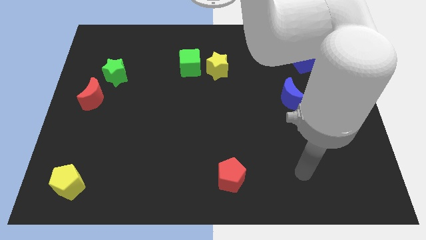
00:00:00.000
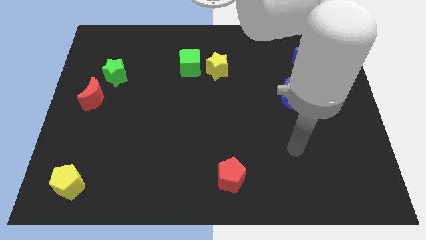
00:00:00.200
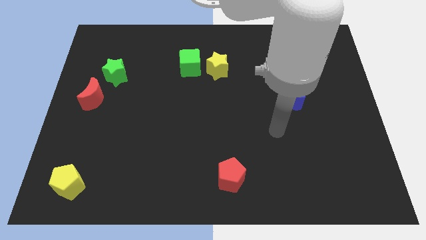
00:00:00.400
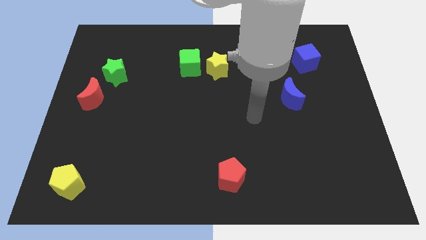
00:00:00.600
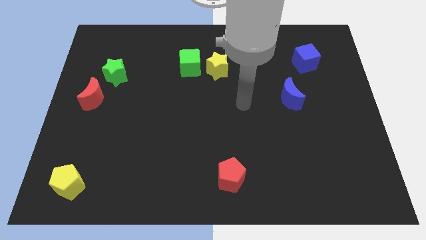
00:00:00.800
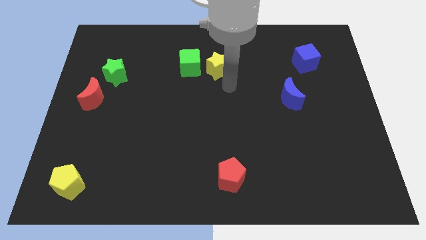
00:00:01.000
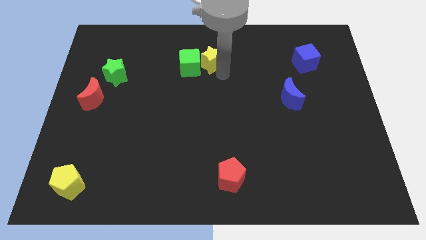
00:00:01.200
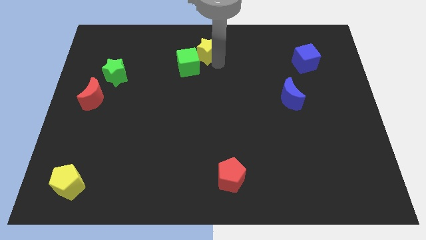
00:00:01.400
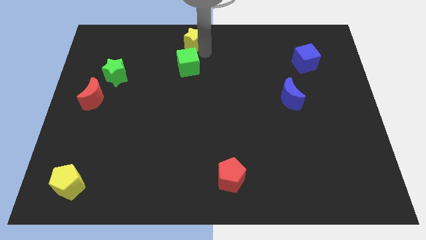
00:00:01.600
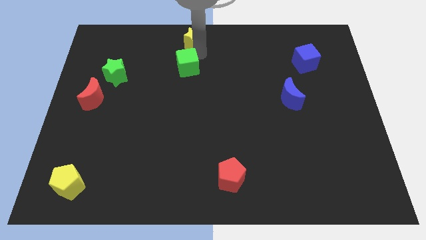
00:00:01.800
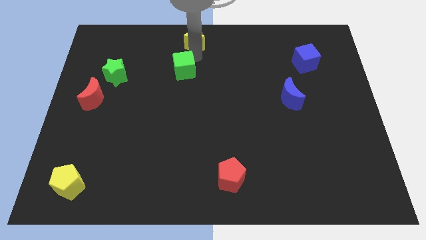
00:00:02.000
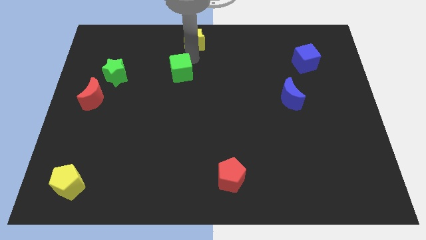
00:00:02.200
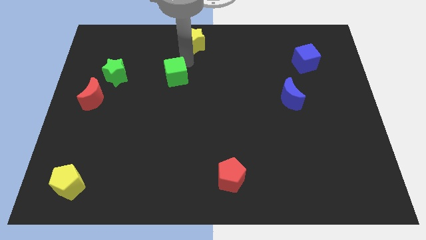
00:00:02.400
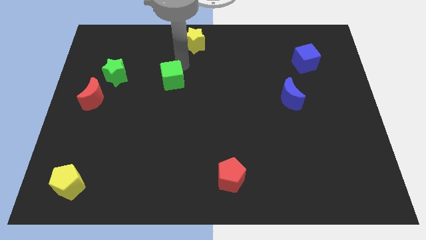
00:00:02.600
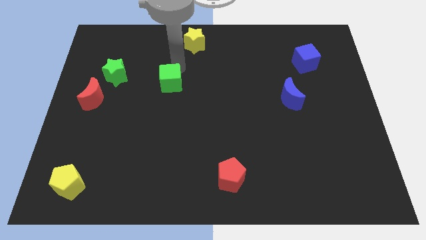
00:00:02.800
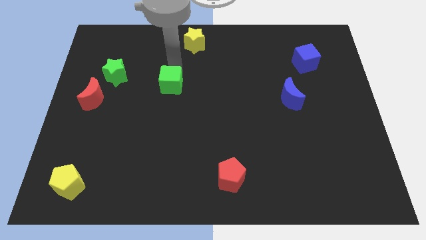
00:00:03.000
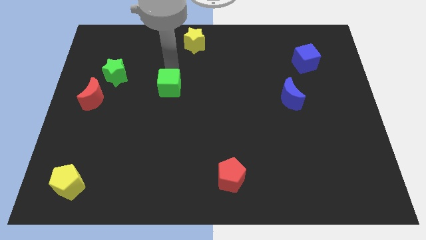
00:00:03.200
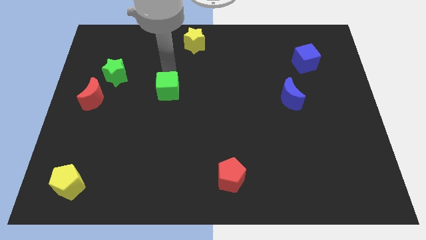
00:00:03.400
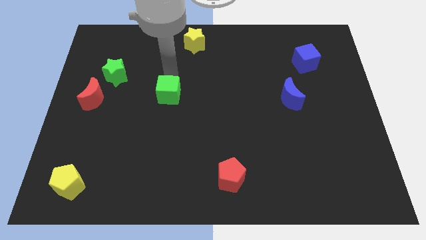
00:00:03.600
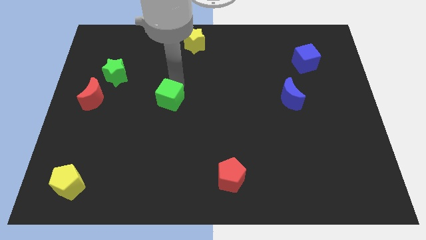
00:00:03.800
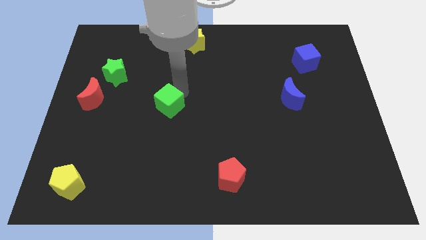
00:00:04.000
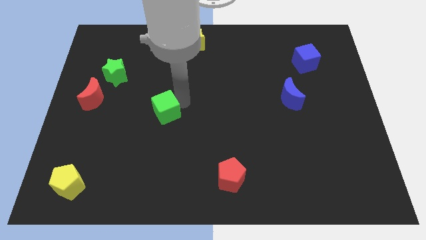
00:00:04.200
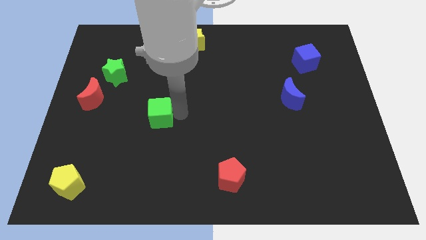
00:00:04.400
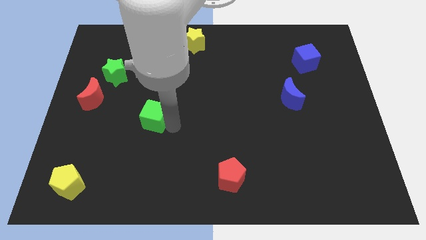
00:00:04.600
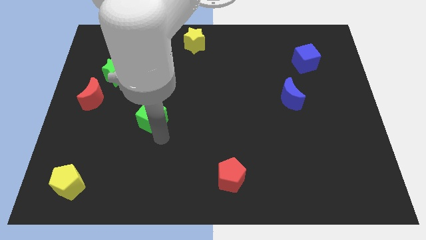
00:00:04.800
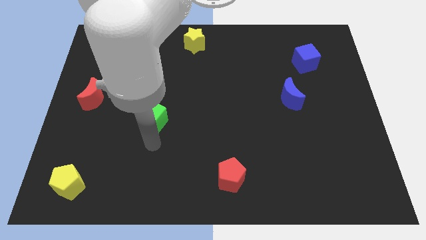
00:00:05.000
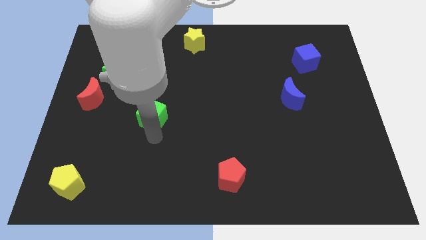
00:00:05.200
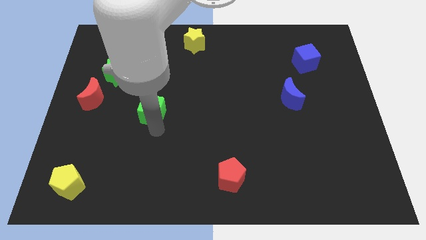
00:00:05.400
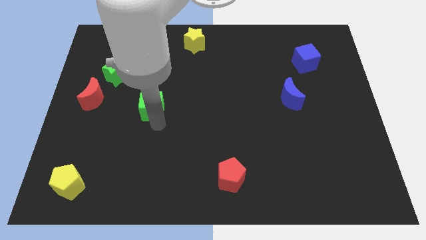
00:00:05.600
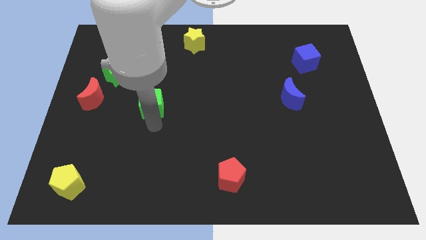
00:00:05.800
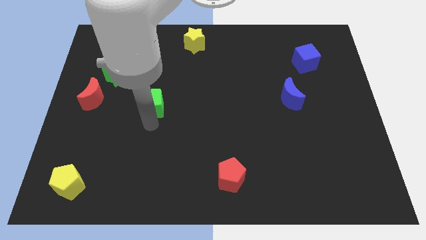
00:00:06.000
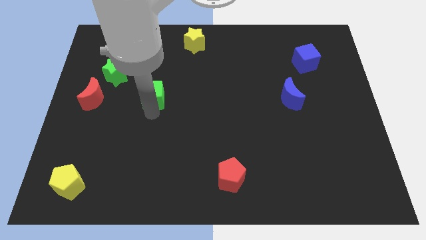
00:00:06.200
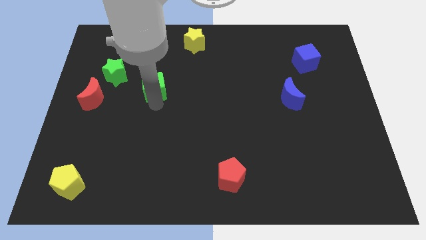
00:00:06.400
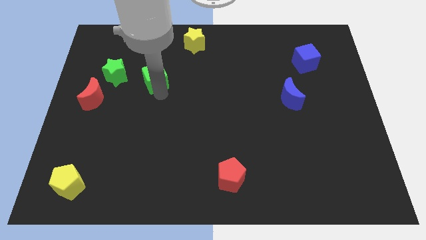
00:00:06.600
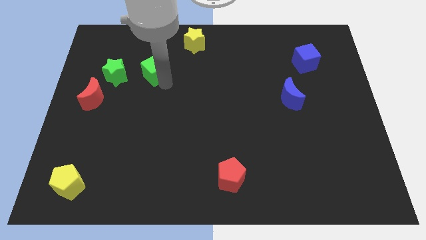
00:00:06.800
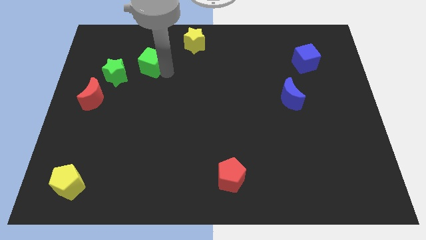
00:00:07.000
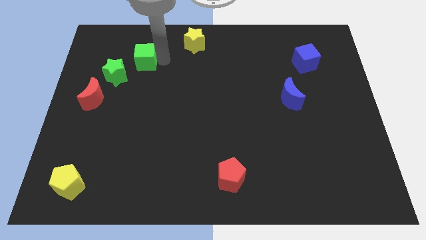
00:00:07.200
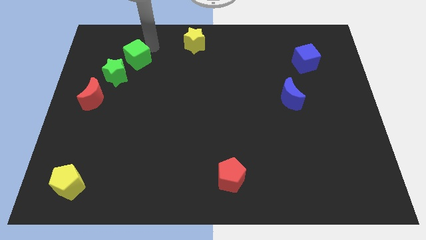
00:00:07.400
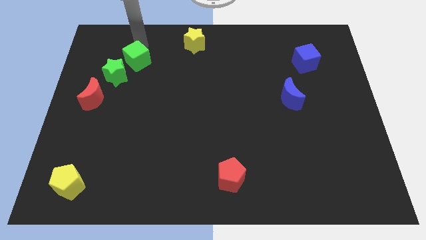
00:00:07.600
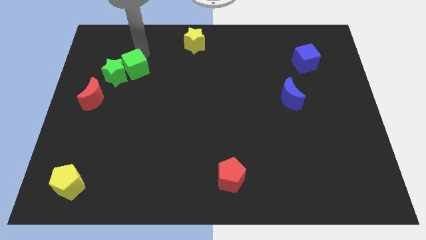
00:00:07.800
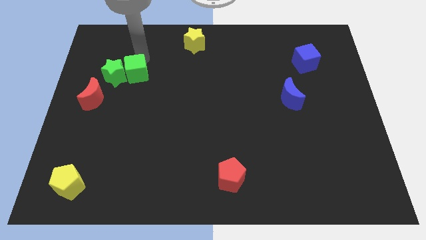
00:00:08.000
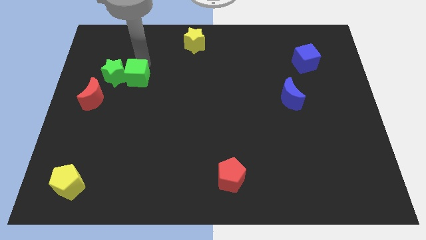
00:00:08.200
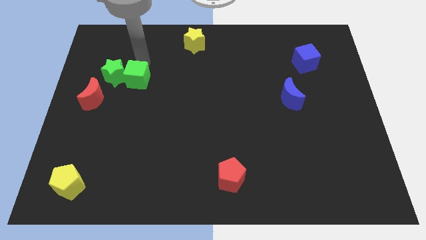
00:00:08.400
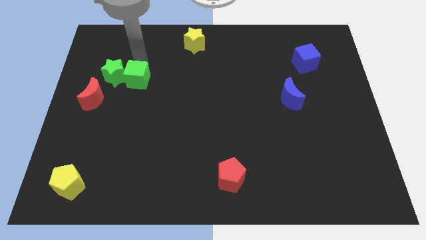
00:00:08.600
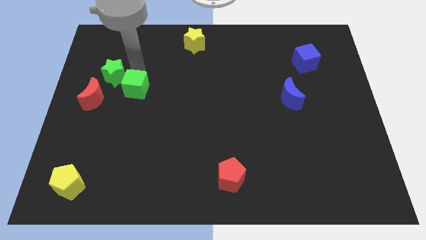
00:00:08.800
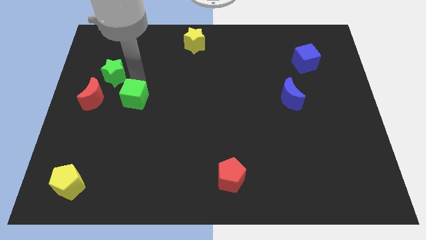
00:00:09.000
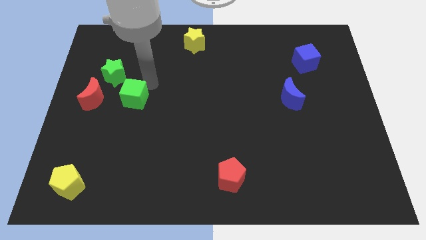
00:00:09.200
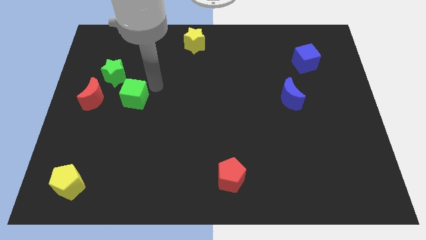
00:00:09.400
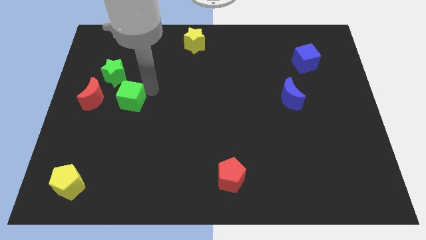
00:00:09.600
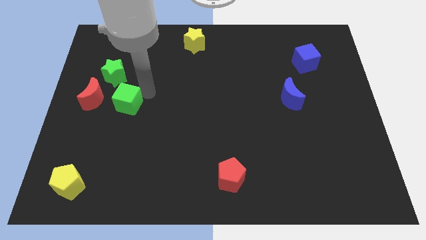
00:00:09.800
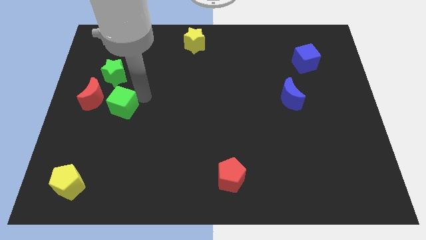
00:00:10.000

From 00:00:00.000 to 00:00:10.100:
move the green cube downwards and left

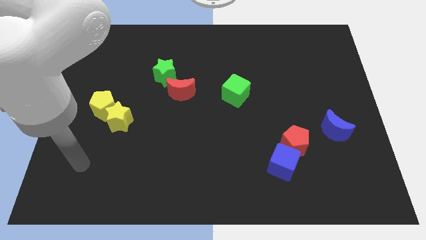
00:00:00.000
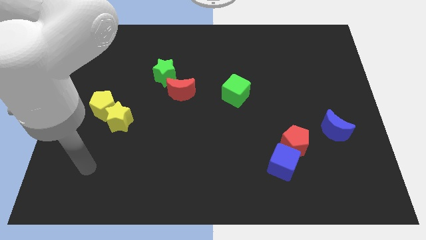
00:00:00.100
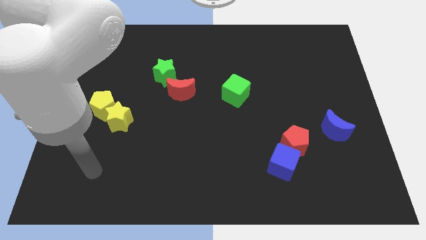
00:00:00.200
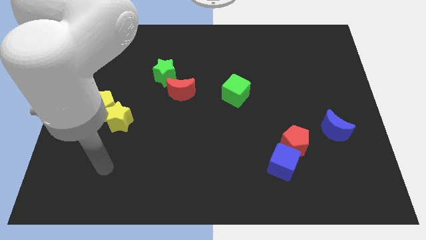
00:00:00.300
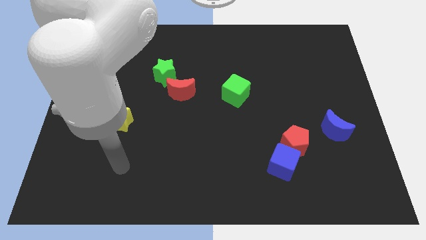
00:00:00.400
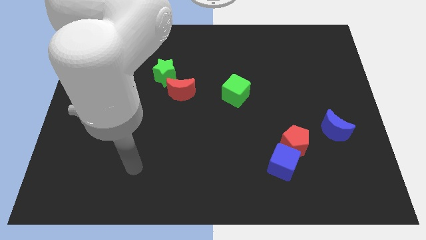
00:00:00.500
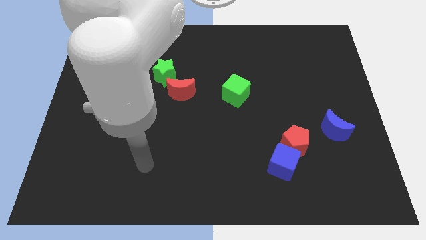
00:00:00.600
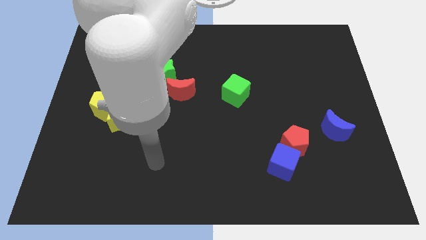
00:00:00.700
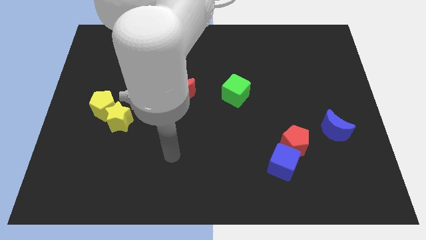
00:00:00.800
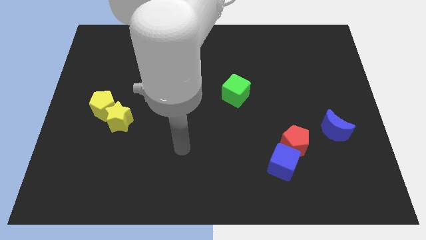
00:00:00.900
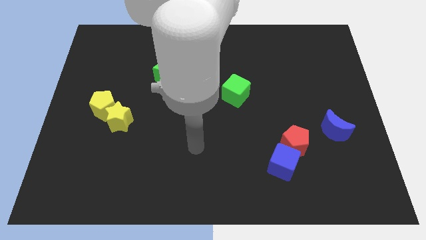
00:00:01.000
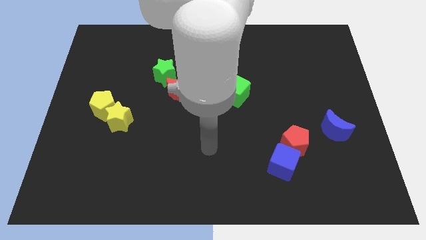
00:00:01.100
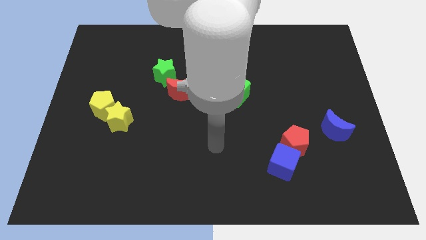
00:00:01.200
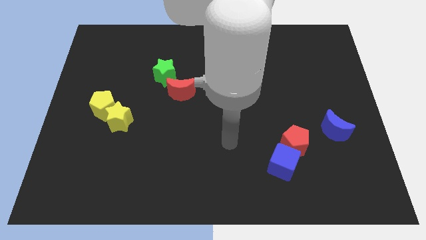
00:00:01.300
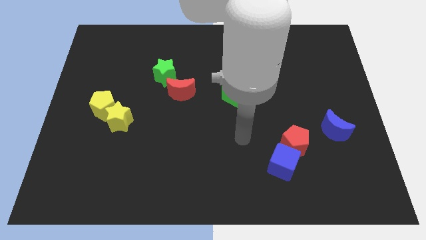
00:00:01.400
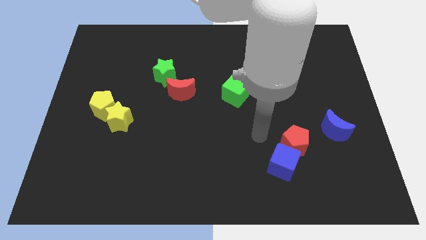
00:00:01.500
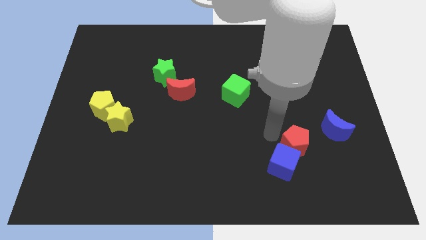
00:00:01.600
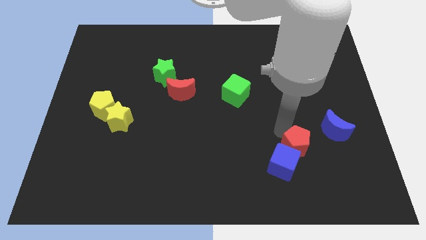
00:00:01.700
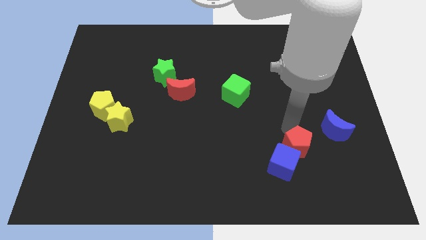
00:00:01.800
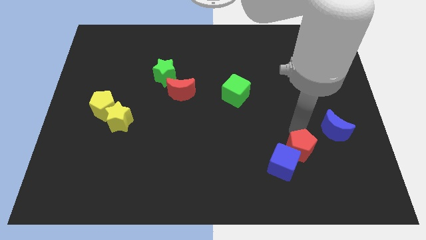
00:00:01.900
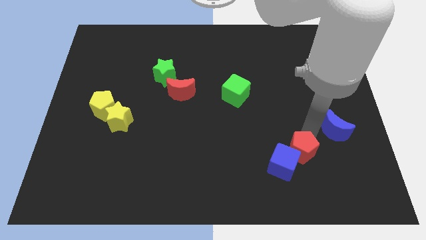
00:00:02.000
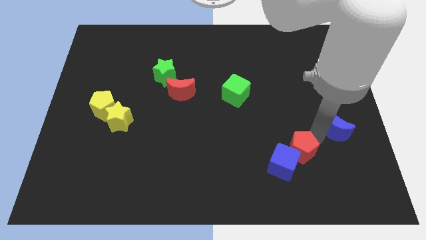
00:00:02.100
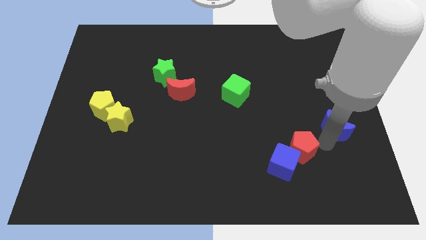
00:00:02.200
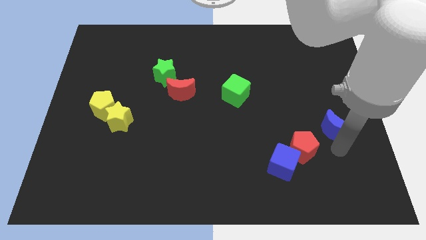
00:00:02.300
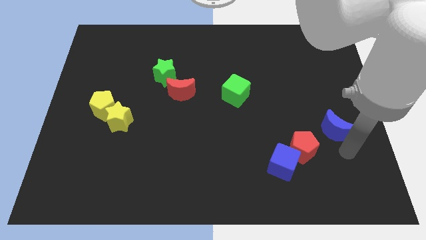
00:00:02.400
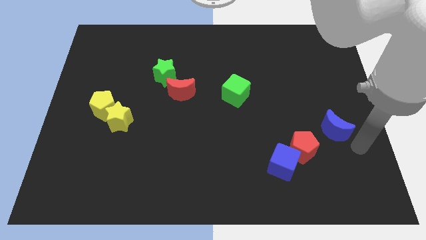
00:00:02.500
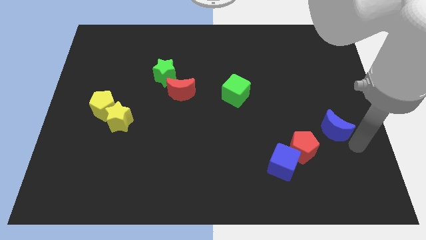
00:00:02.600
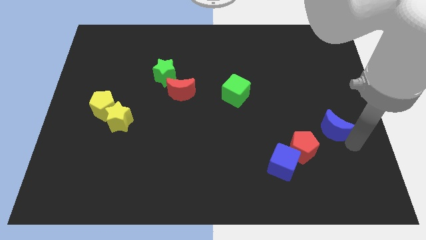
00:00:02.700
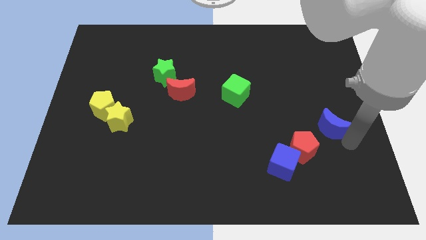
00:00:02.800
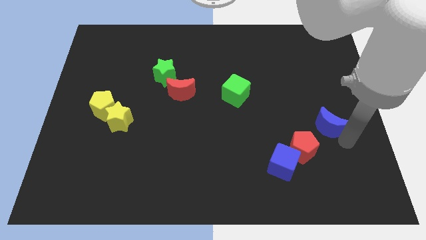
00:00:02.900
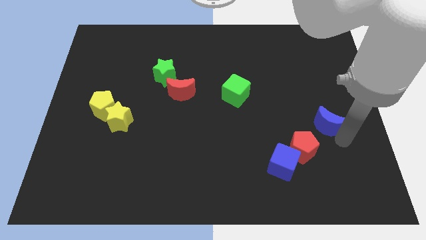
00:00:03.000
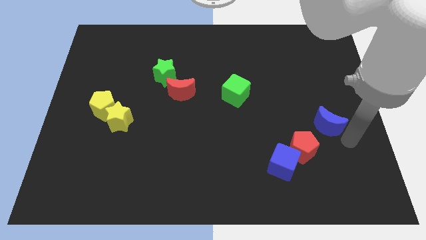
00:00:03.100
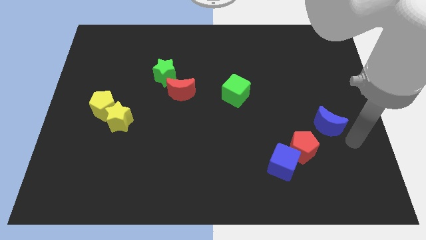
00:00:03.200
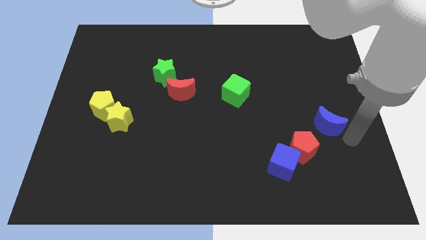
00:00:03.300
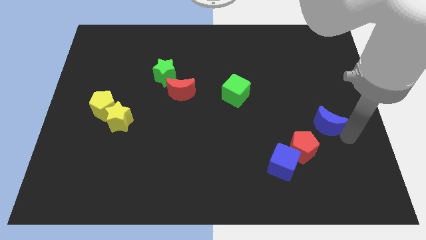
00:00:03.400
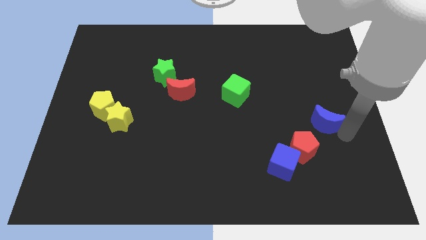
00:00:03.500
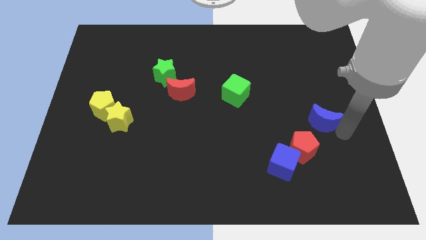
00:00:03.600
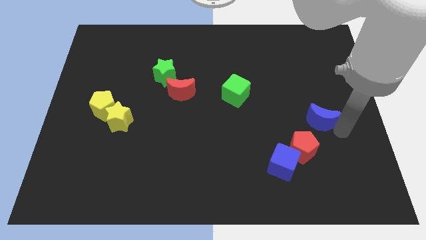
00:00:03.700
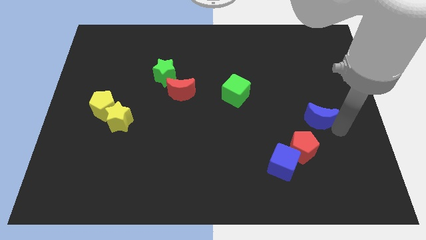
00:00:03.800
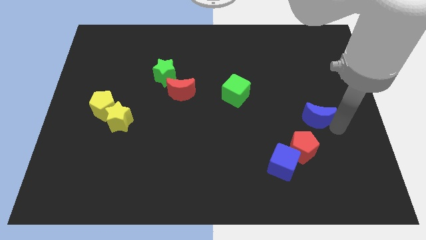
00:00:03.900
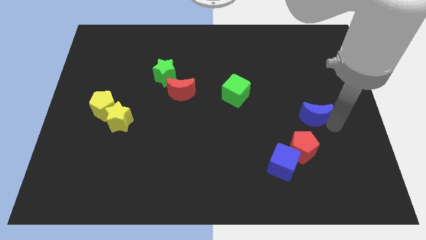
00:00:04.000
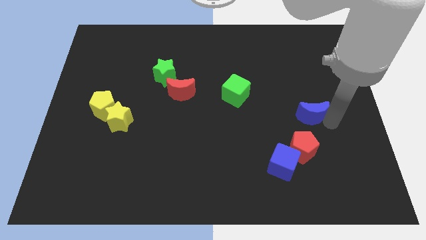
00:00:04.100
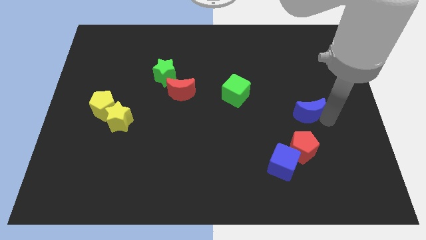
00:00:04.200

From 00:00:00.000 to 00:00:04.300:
slightly slide the blue moon up and then to the left
